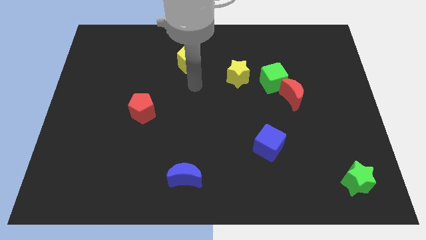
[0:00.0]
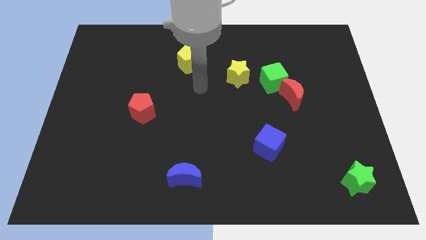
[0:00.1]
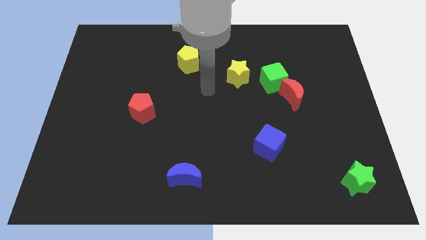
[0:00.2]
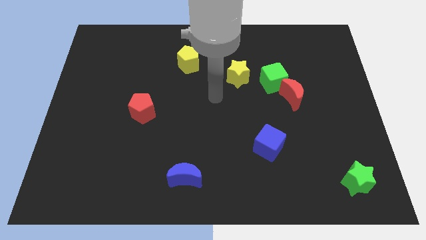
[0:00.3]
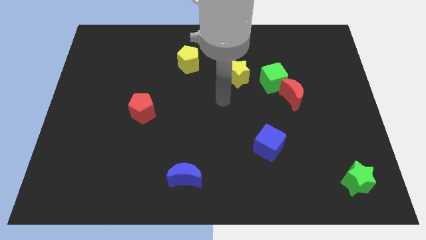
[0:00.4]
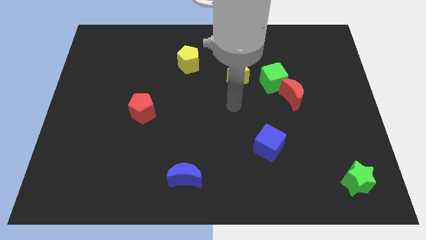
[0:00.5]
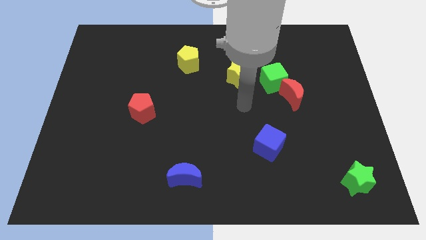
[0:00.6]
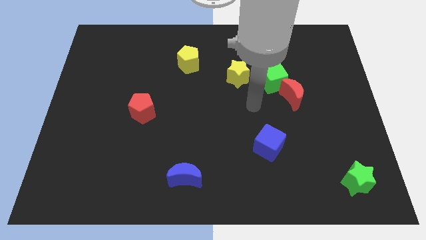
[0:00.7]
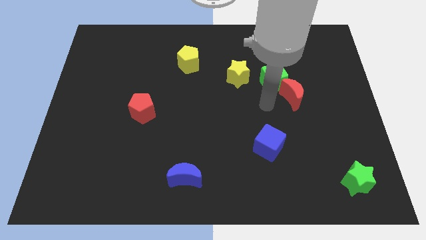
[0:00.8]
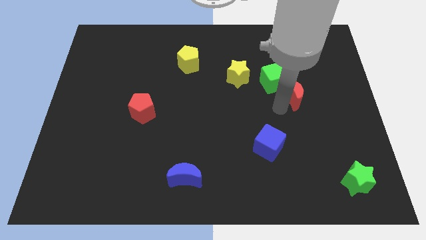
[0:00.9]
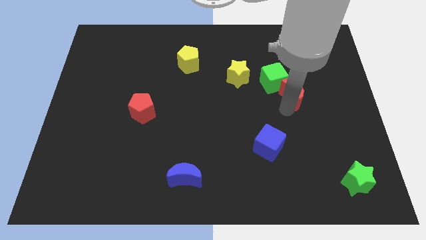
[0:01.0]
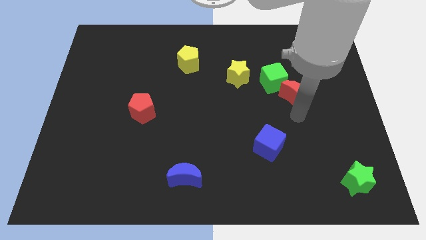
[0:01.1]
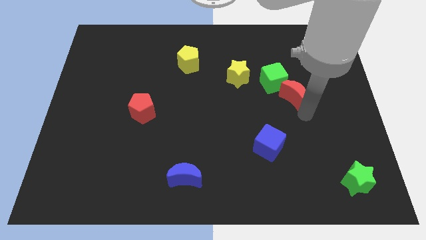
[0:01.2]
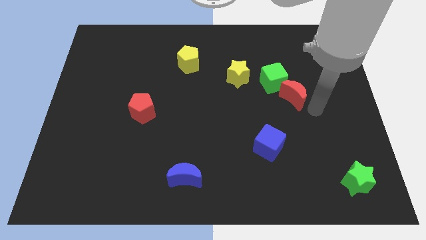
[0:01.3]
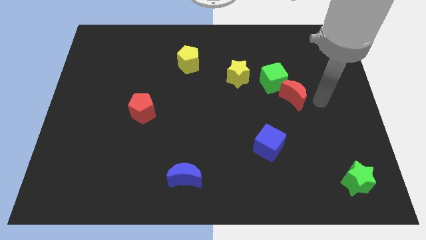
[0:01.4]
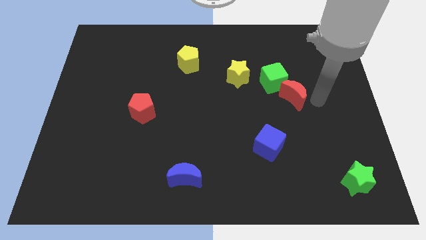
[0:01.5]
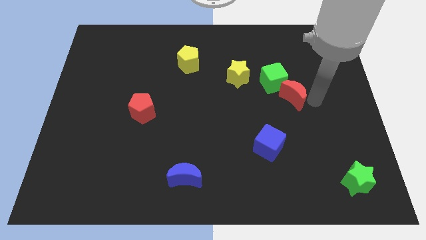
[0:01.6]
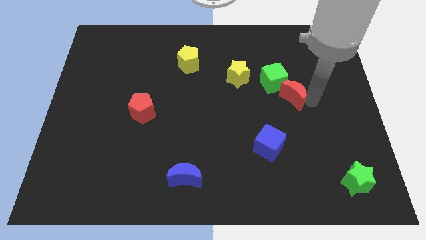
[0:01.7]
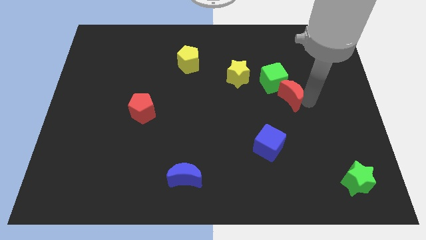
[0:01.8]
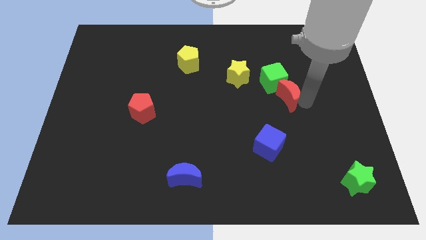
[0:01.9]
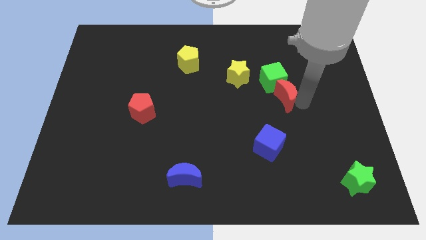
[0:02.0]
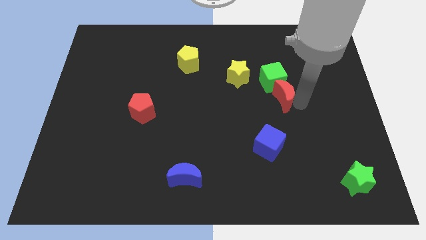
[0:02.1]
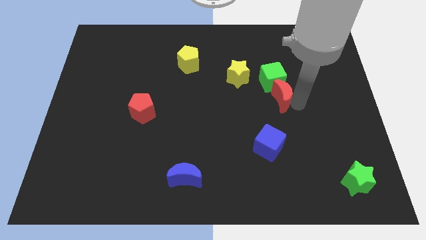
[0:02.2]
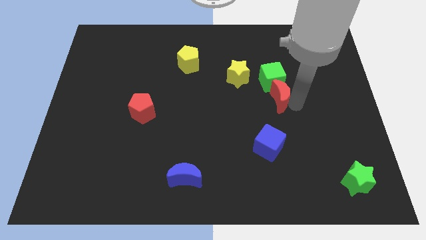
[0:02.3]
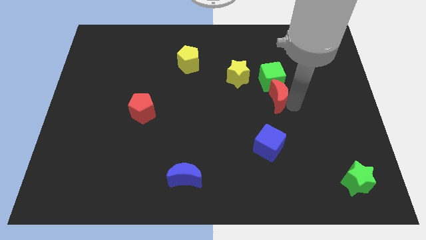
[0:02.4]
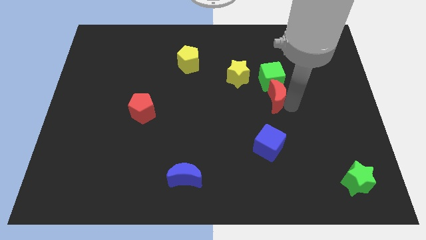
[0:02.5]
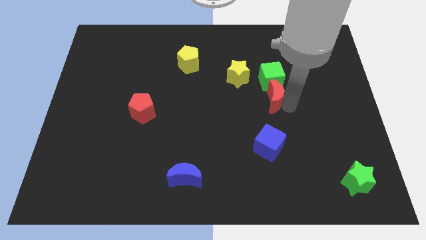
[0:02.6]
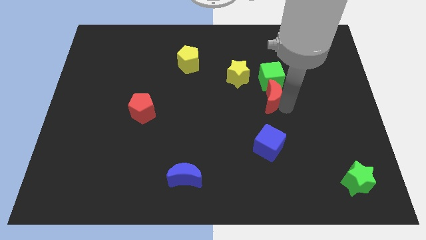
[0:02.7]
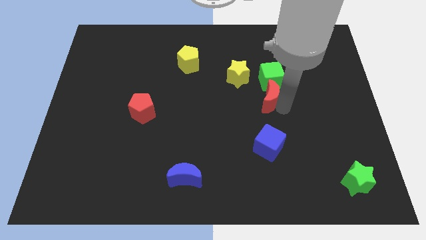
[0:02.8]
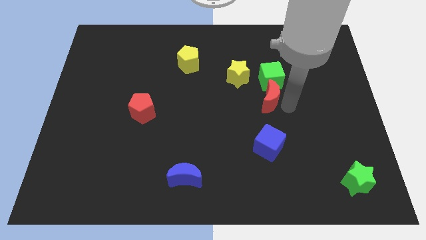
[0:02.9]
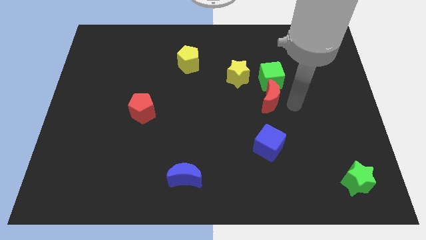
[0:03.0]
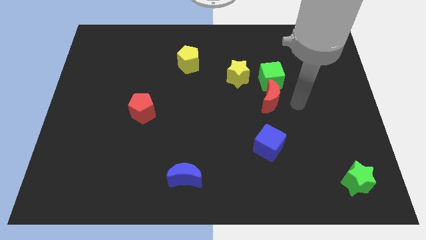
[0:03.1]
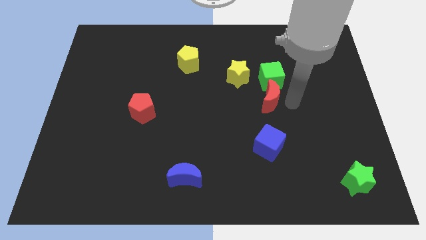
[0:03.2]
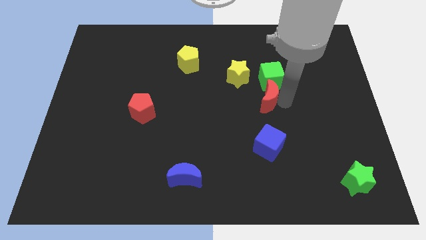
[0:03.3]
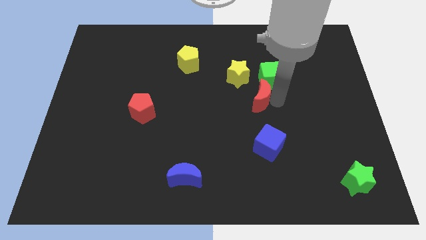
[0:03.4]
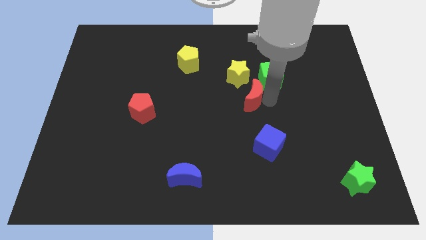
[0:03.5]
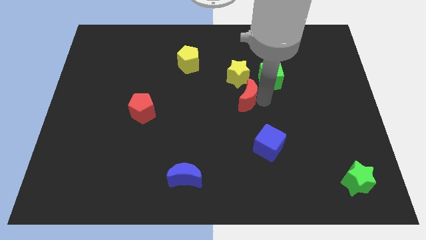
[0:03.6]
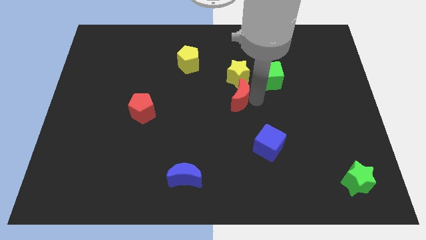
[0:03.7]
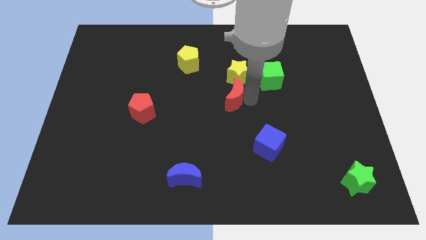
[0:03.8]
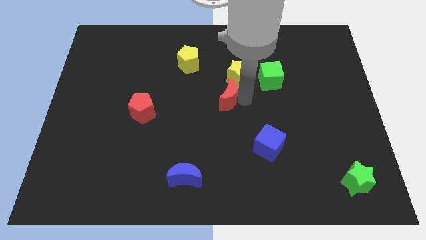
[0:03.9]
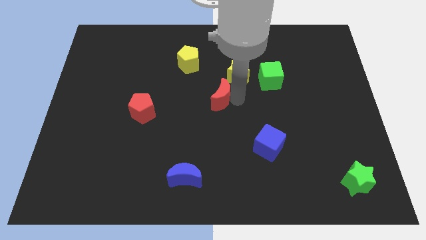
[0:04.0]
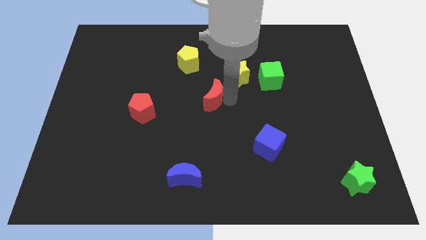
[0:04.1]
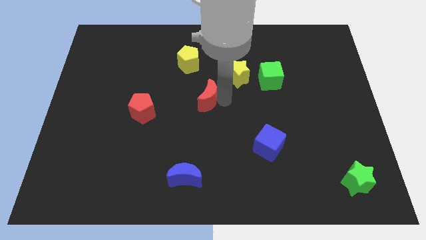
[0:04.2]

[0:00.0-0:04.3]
move the red moon left

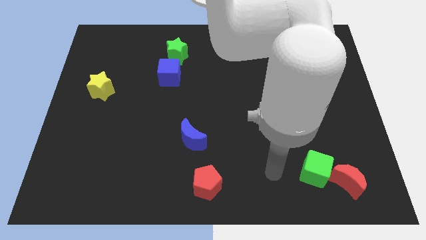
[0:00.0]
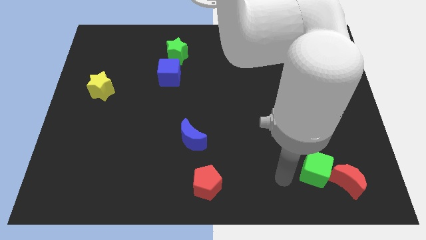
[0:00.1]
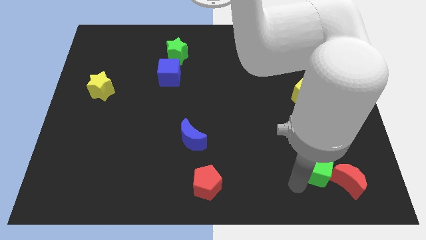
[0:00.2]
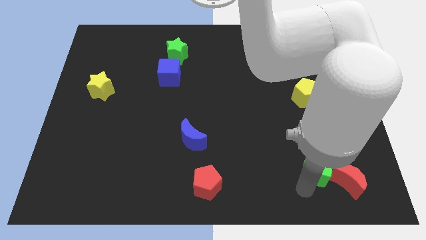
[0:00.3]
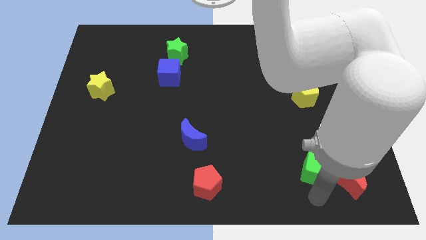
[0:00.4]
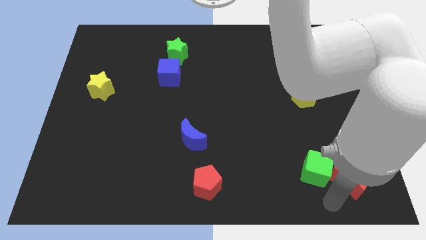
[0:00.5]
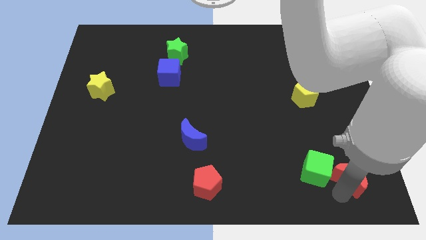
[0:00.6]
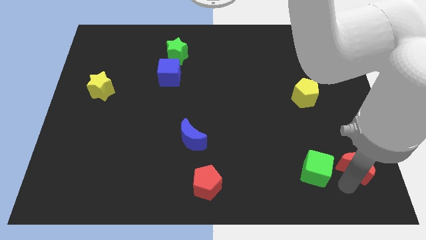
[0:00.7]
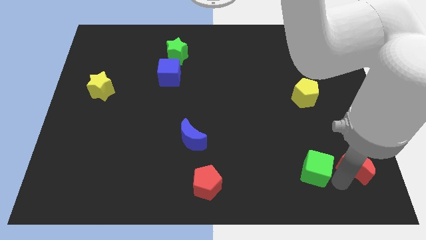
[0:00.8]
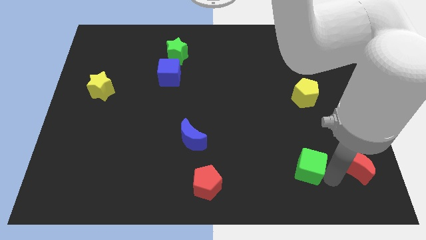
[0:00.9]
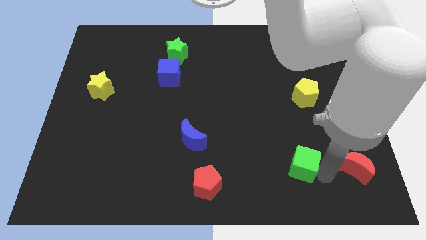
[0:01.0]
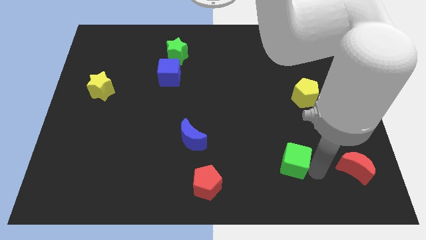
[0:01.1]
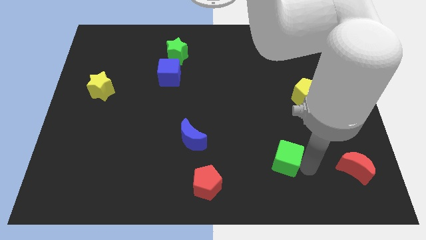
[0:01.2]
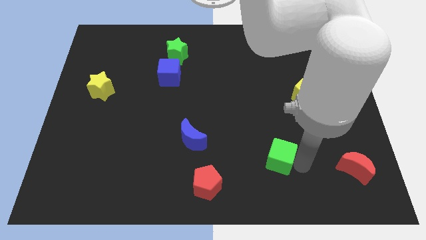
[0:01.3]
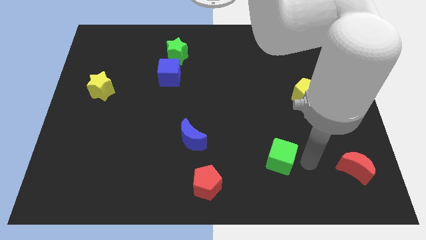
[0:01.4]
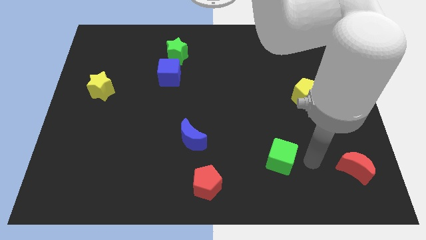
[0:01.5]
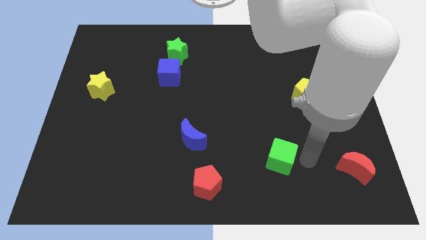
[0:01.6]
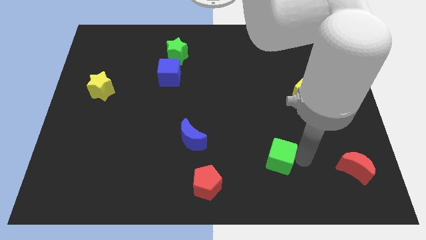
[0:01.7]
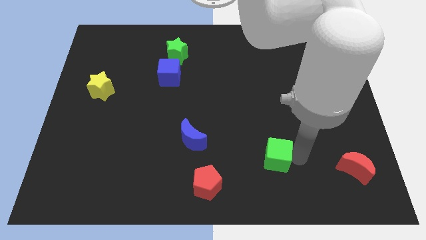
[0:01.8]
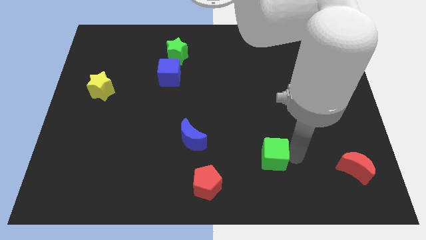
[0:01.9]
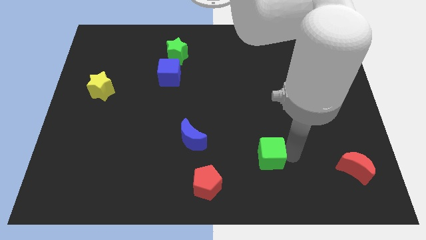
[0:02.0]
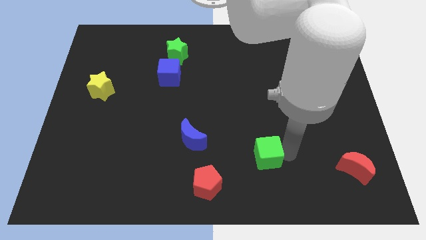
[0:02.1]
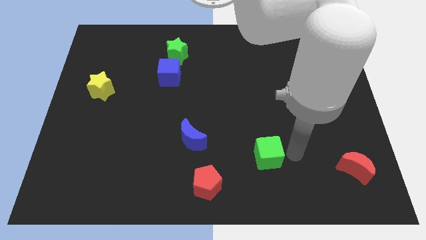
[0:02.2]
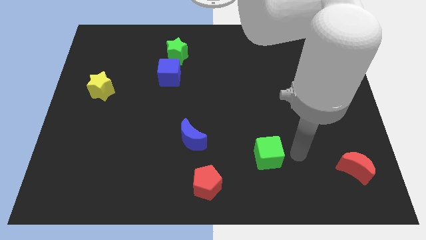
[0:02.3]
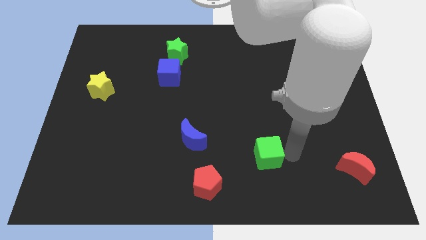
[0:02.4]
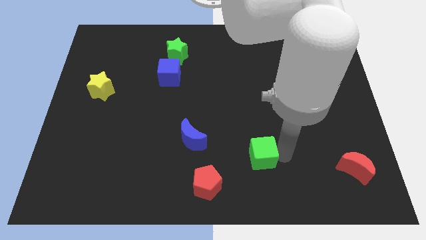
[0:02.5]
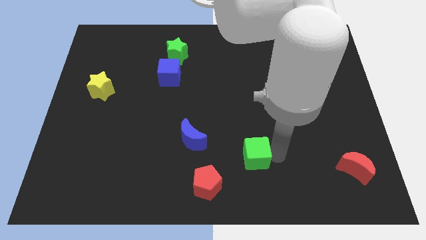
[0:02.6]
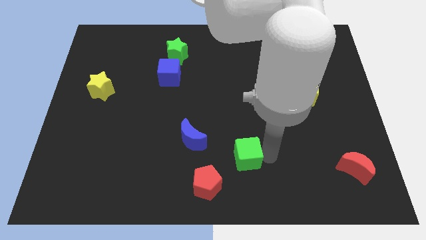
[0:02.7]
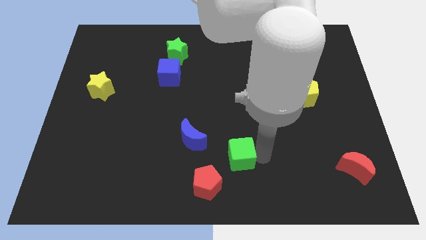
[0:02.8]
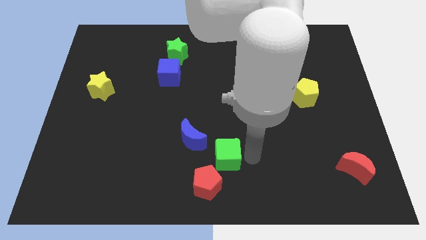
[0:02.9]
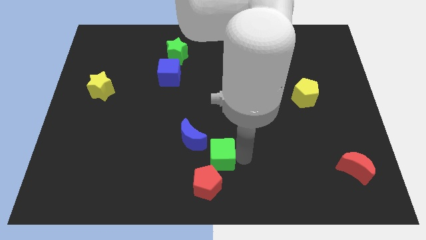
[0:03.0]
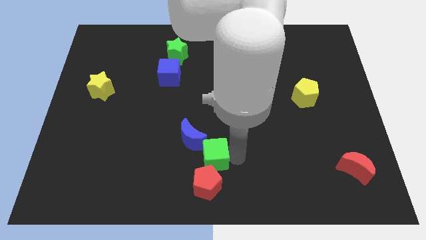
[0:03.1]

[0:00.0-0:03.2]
move the green cube left

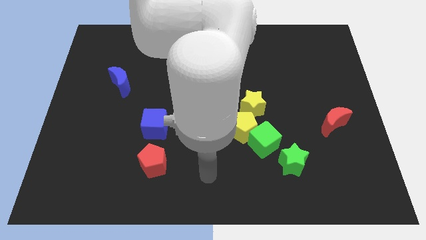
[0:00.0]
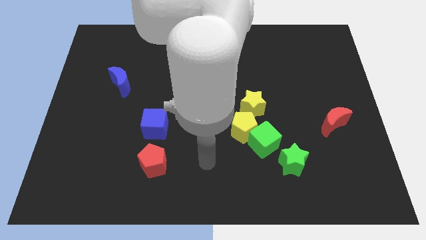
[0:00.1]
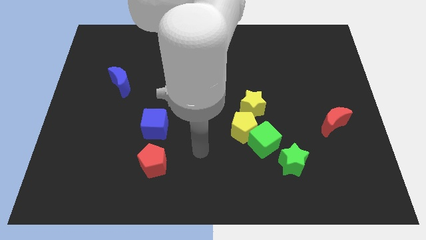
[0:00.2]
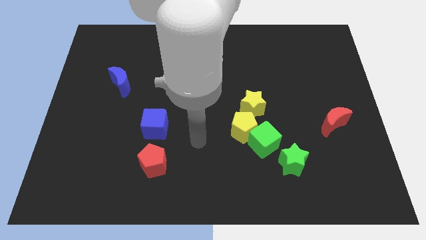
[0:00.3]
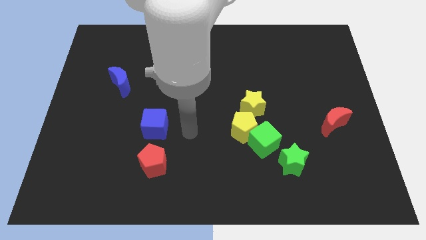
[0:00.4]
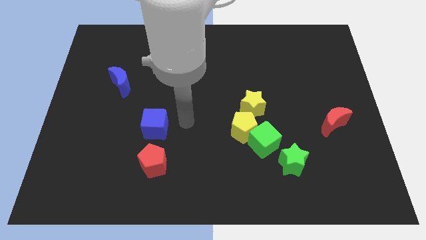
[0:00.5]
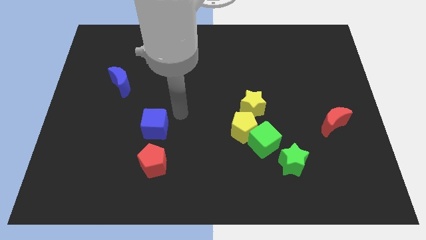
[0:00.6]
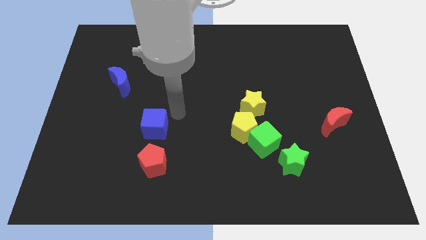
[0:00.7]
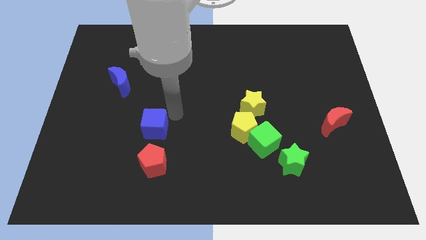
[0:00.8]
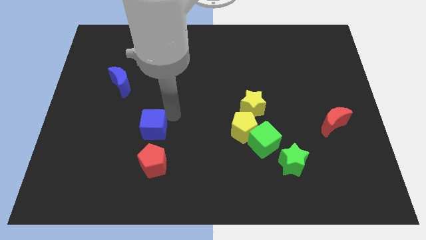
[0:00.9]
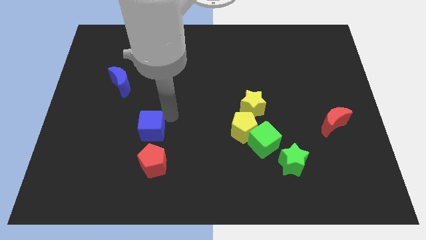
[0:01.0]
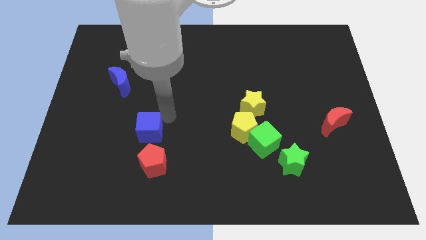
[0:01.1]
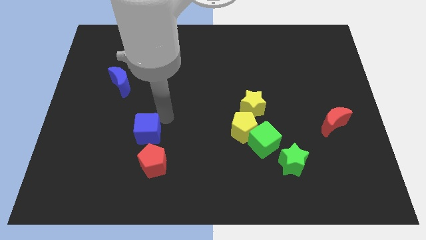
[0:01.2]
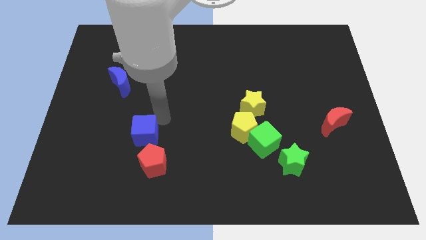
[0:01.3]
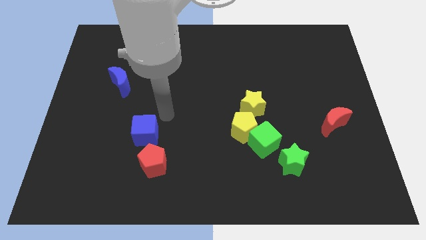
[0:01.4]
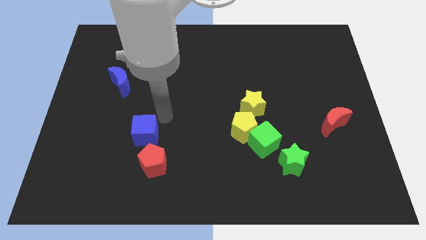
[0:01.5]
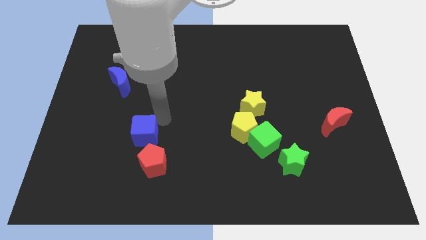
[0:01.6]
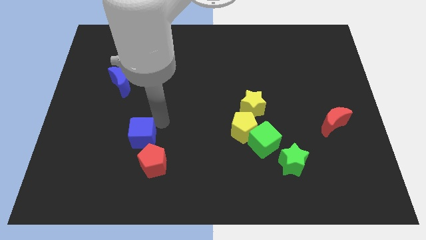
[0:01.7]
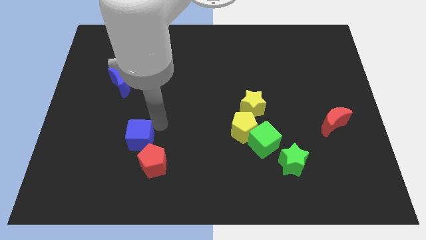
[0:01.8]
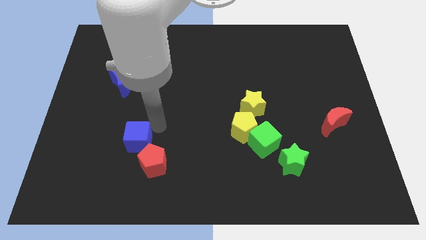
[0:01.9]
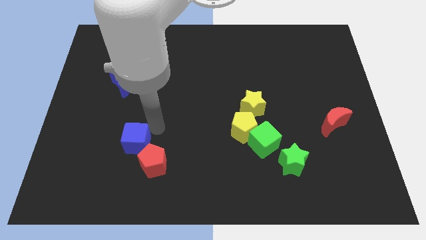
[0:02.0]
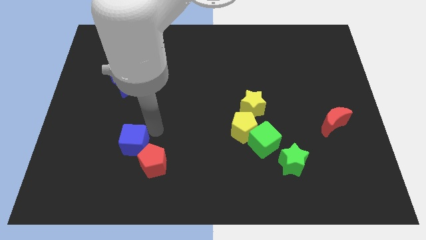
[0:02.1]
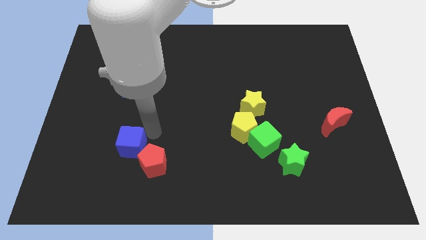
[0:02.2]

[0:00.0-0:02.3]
slightly move the blue cube down and then to the left
